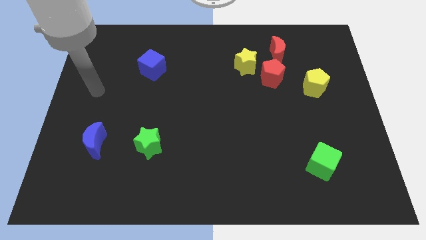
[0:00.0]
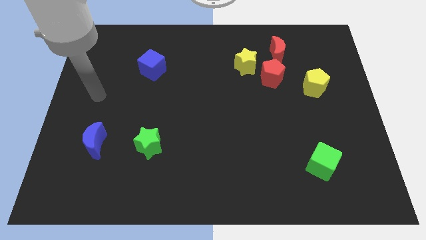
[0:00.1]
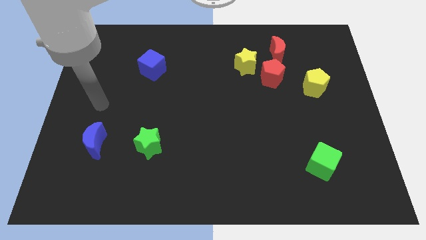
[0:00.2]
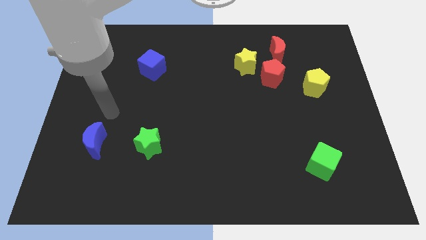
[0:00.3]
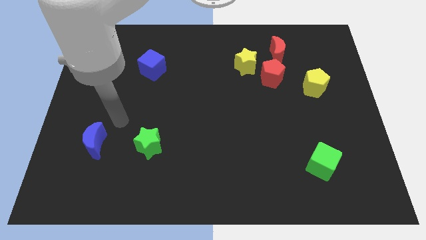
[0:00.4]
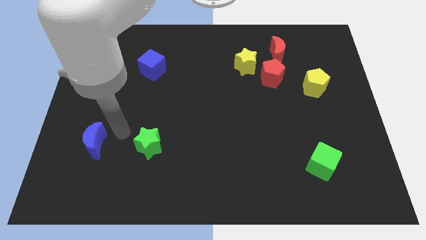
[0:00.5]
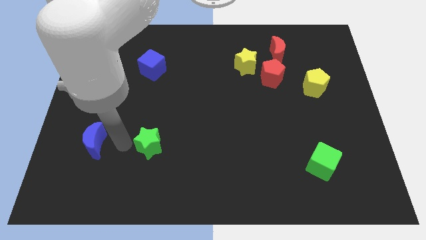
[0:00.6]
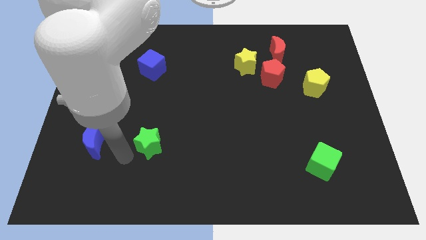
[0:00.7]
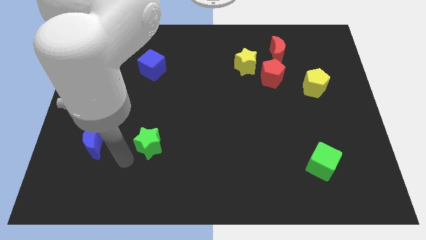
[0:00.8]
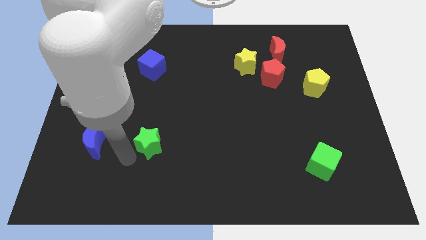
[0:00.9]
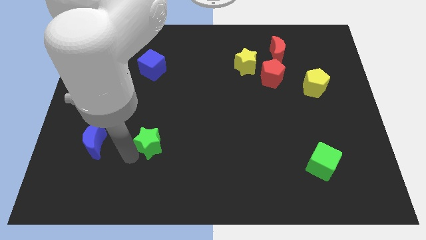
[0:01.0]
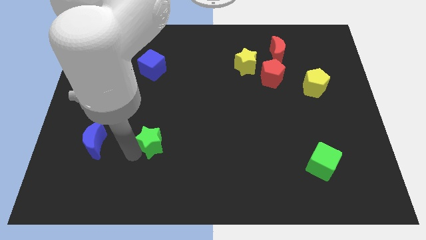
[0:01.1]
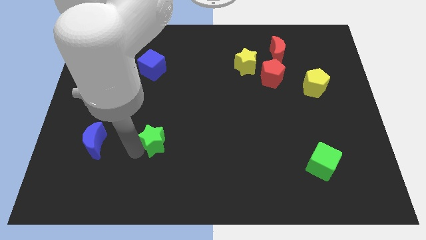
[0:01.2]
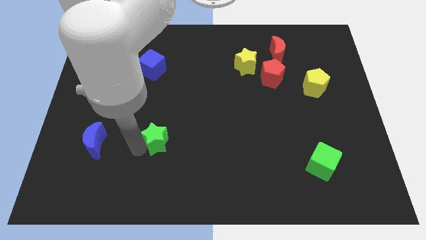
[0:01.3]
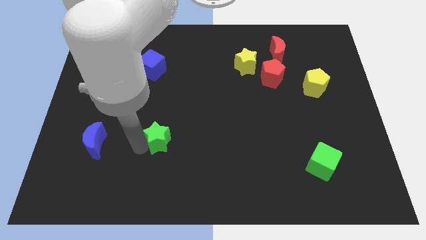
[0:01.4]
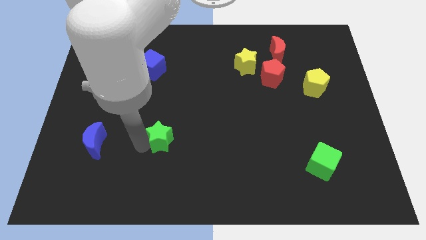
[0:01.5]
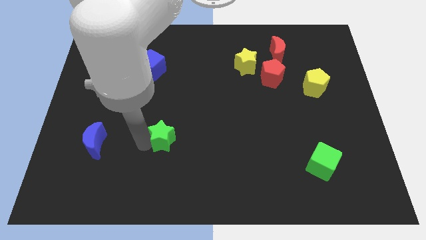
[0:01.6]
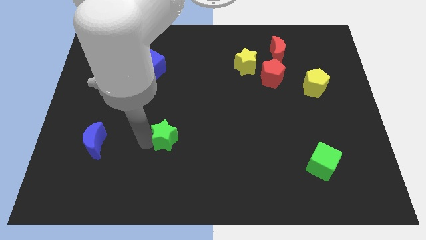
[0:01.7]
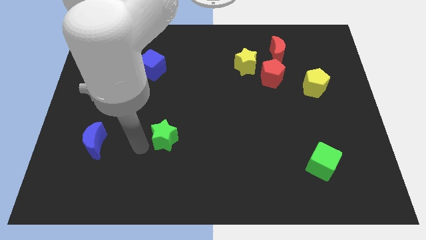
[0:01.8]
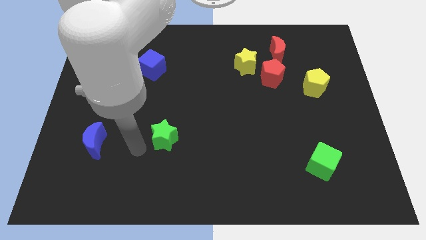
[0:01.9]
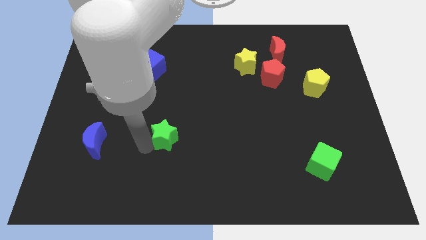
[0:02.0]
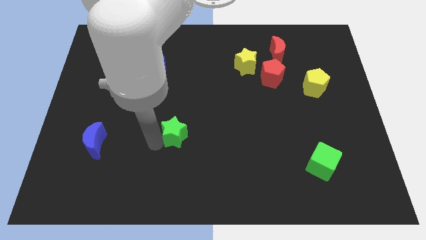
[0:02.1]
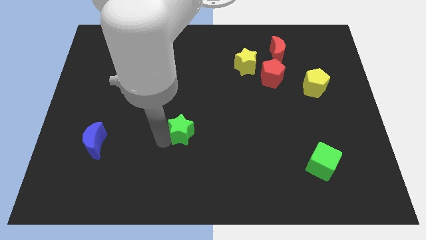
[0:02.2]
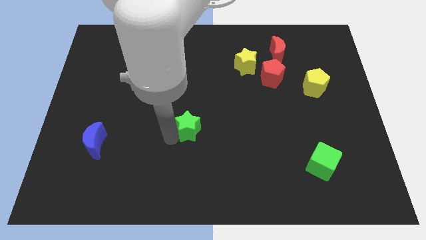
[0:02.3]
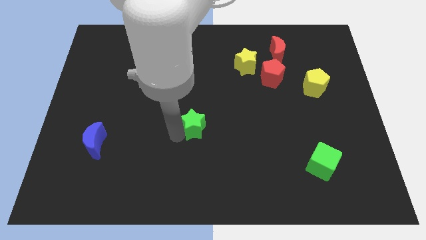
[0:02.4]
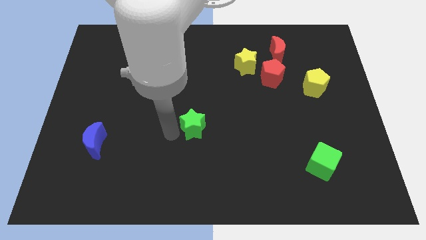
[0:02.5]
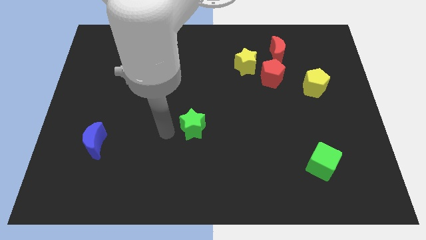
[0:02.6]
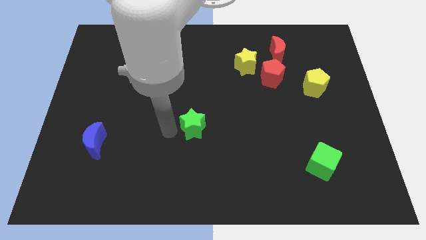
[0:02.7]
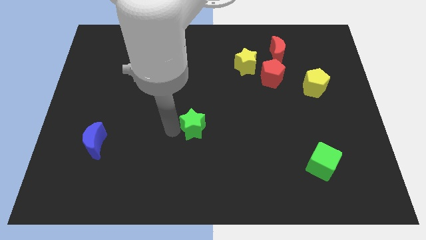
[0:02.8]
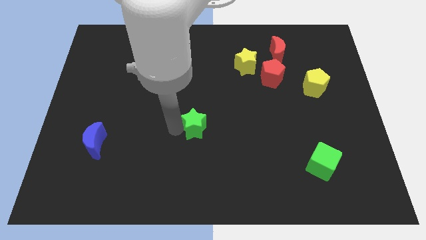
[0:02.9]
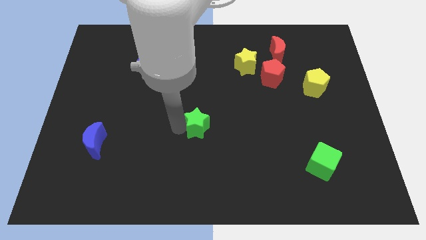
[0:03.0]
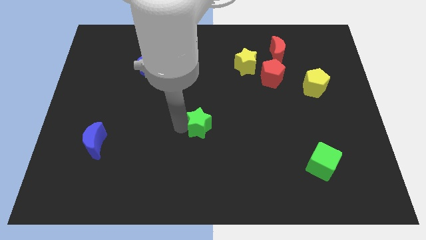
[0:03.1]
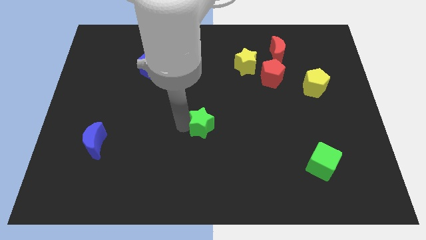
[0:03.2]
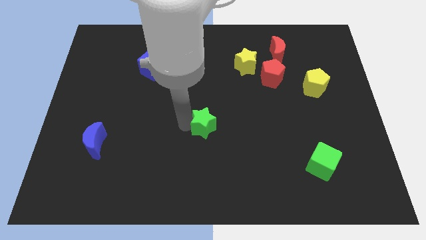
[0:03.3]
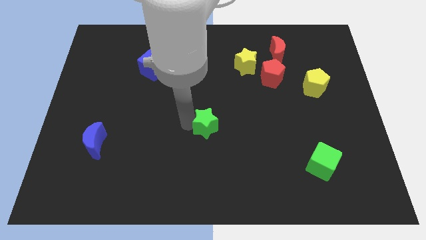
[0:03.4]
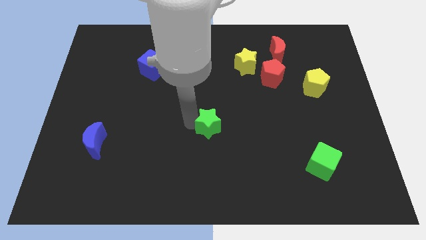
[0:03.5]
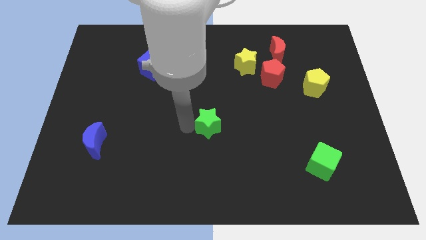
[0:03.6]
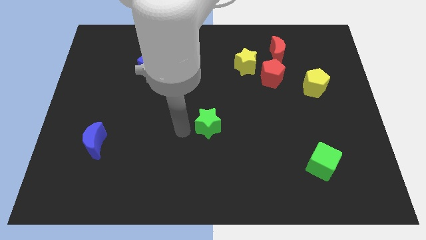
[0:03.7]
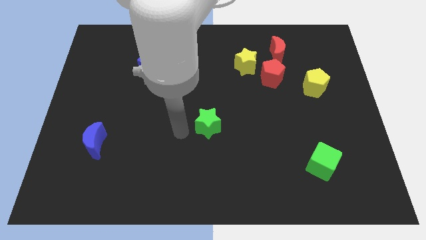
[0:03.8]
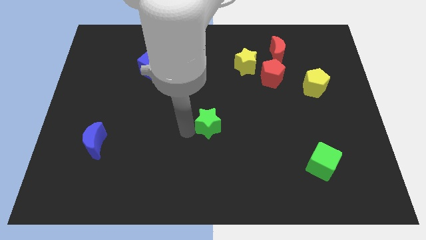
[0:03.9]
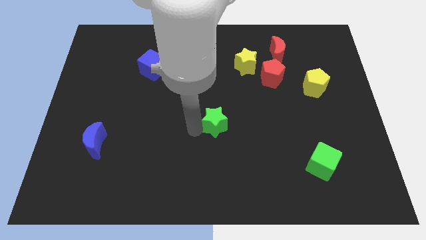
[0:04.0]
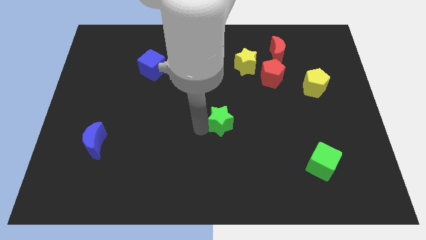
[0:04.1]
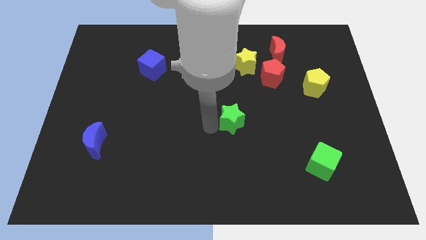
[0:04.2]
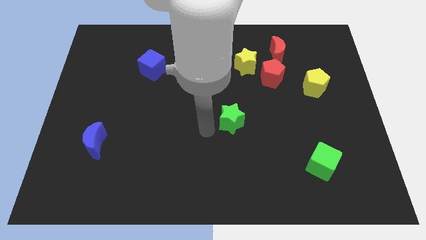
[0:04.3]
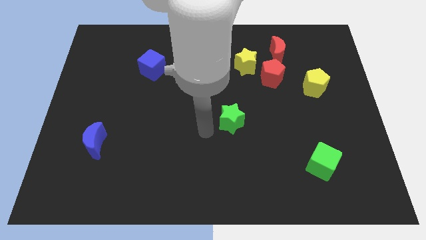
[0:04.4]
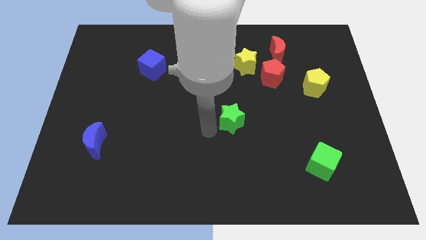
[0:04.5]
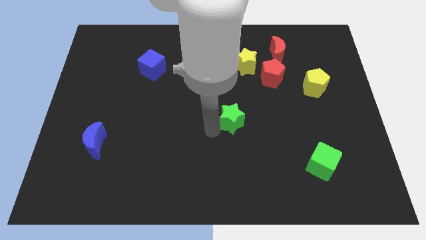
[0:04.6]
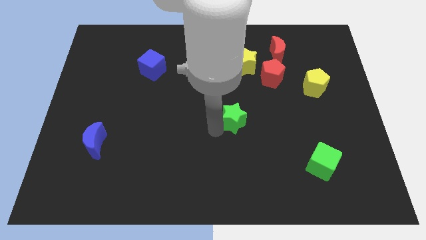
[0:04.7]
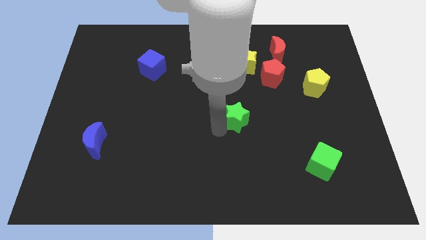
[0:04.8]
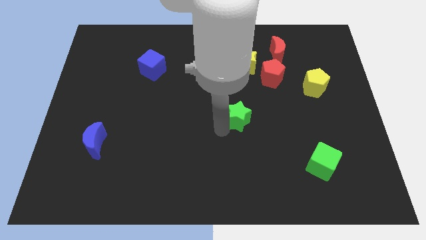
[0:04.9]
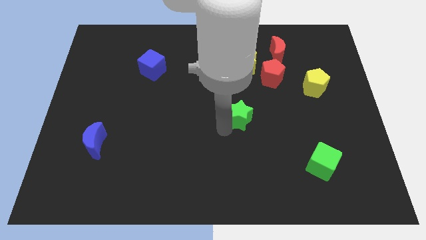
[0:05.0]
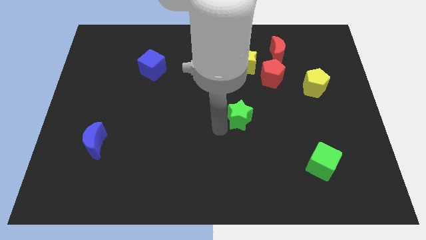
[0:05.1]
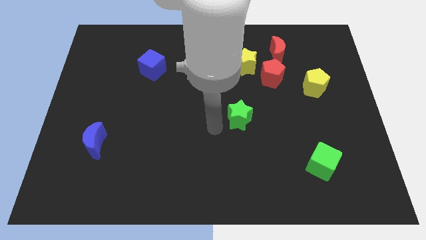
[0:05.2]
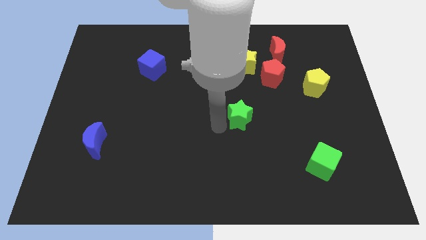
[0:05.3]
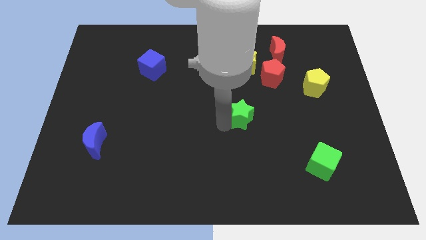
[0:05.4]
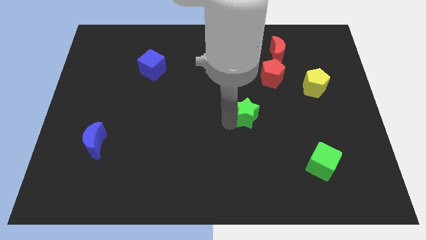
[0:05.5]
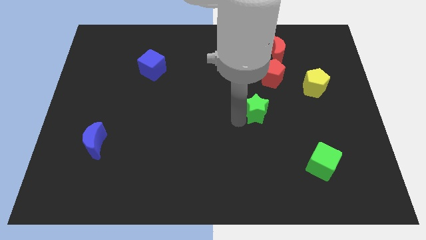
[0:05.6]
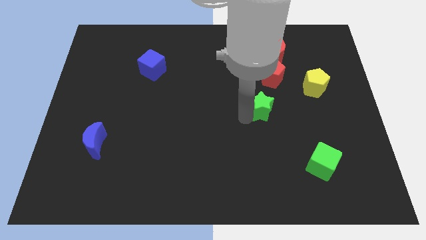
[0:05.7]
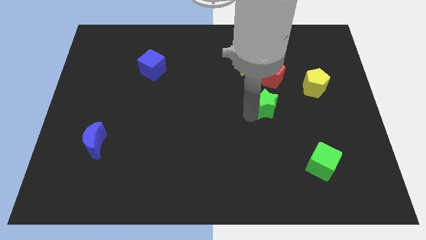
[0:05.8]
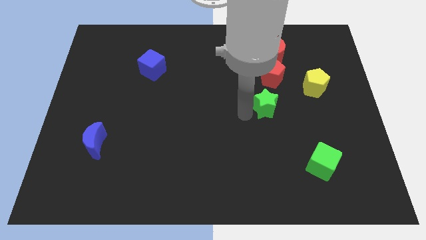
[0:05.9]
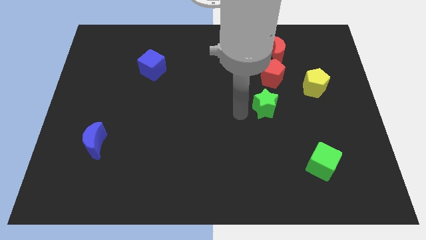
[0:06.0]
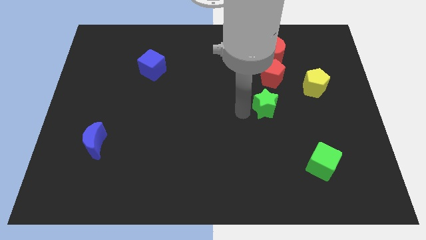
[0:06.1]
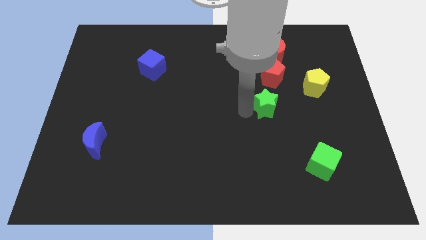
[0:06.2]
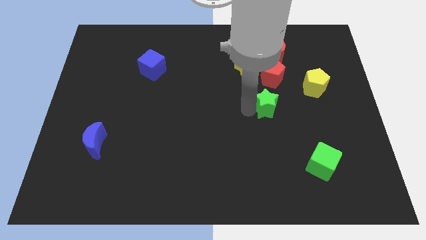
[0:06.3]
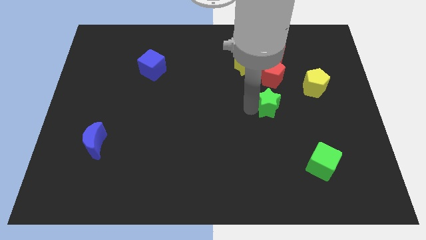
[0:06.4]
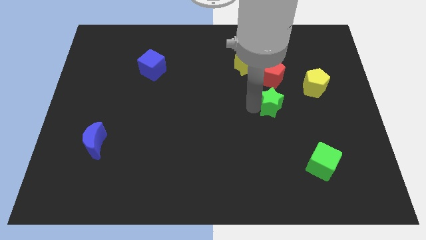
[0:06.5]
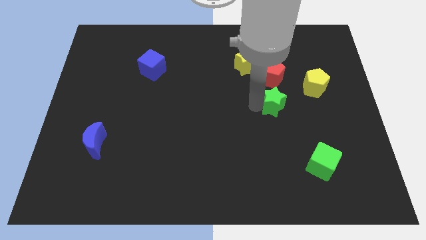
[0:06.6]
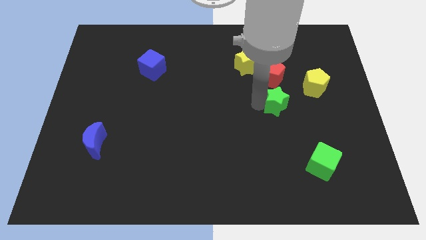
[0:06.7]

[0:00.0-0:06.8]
push the green star diagonally down and to the left of the yellow pentagon

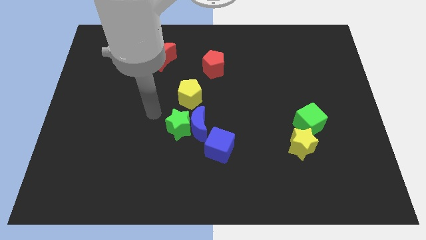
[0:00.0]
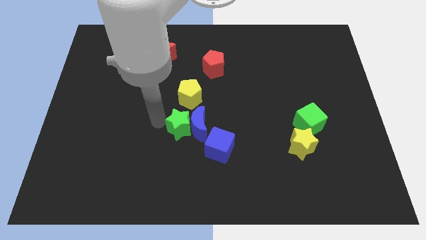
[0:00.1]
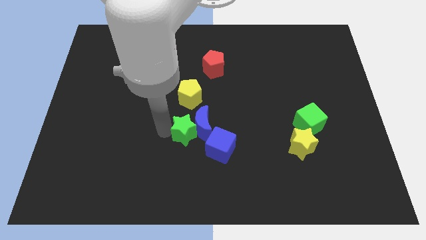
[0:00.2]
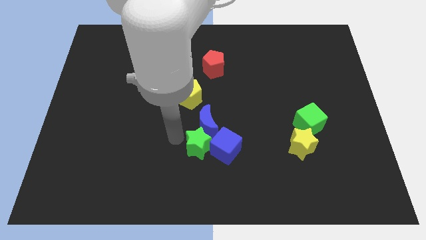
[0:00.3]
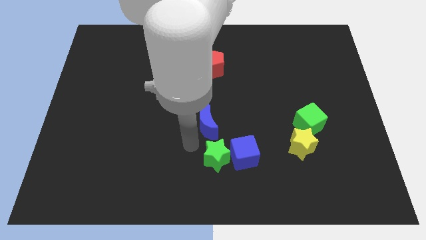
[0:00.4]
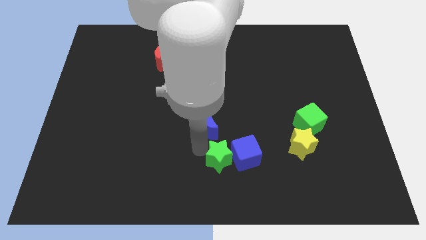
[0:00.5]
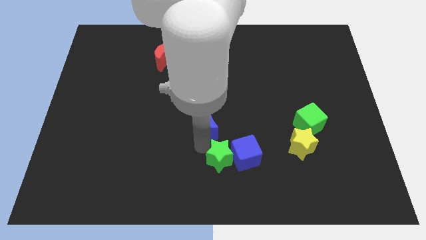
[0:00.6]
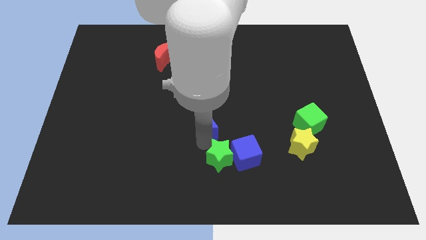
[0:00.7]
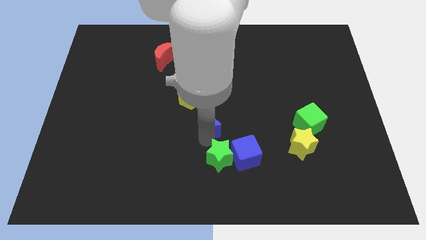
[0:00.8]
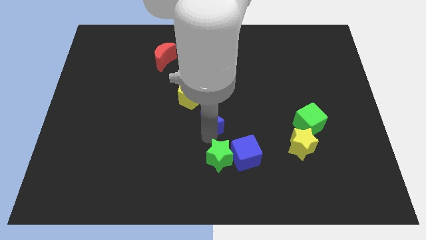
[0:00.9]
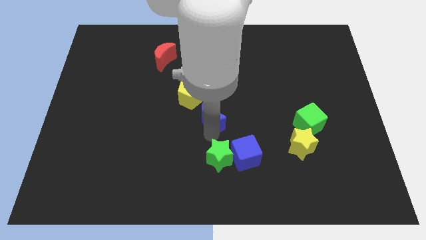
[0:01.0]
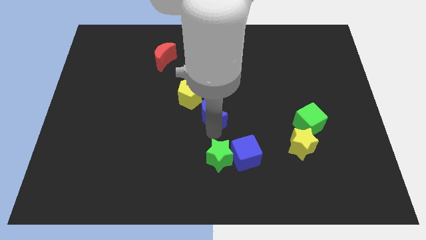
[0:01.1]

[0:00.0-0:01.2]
put the blue moon below the red pentagon
